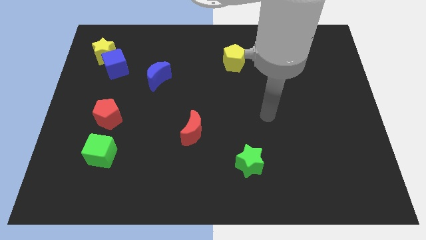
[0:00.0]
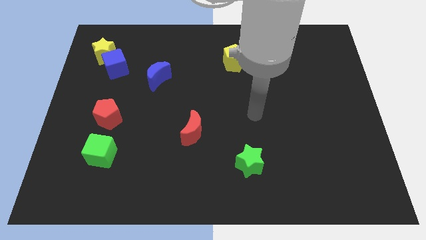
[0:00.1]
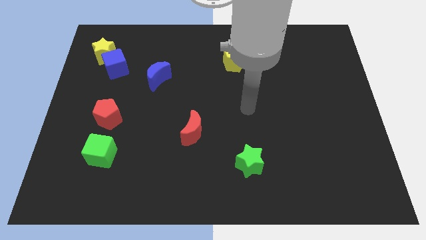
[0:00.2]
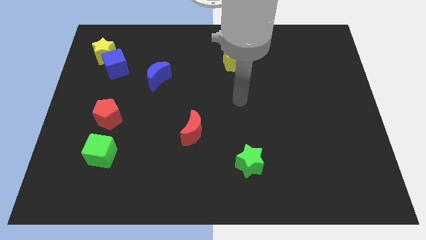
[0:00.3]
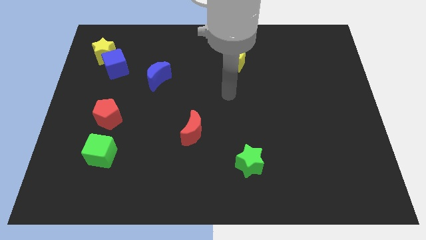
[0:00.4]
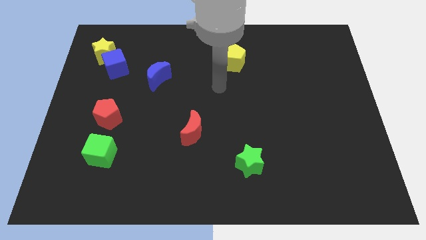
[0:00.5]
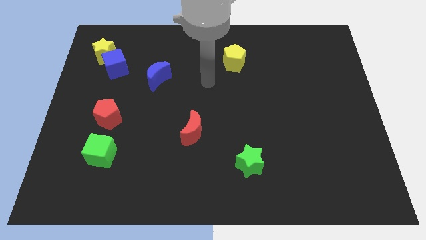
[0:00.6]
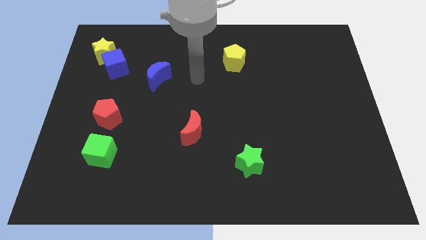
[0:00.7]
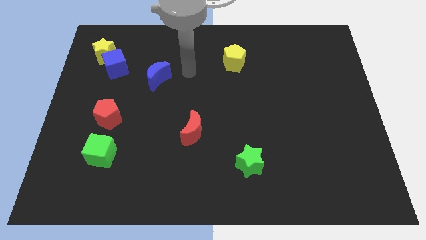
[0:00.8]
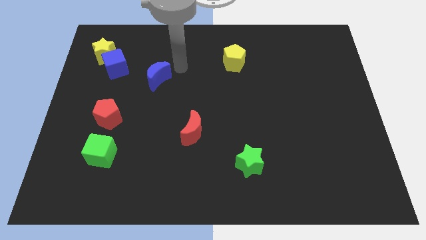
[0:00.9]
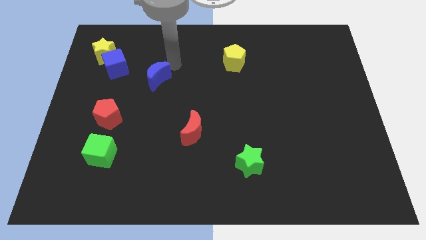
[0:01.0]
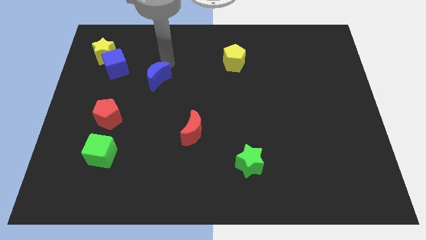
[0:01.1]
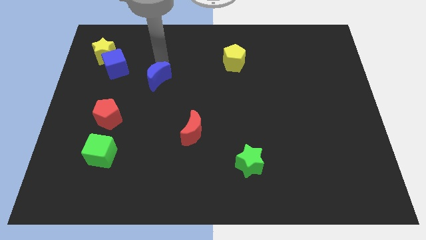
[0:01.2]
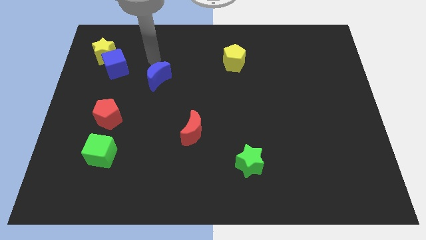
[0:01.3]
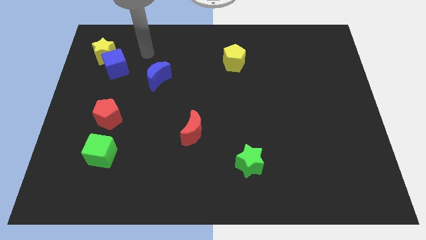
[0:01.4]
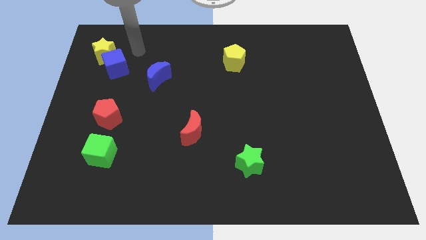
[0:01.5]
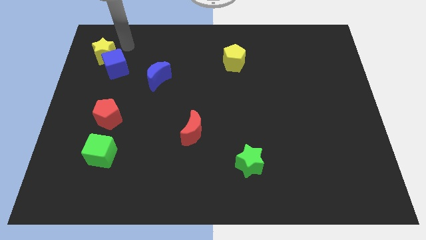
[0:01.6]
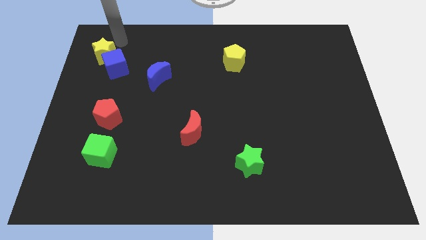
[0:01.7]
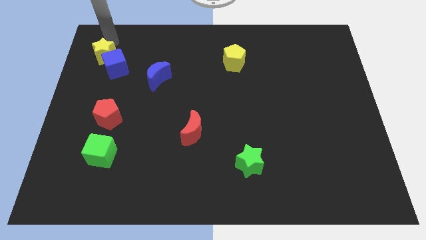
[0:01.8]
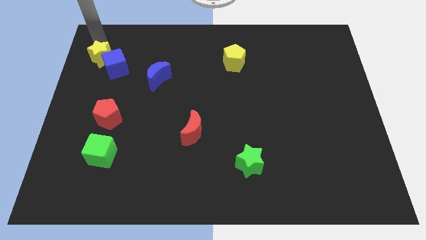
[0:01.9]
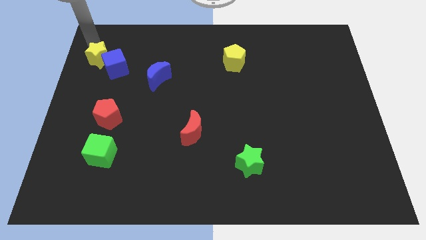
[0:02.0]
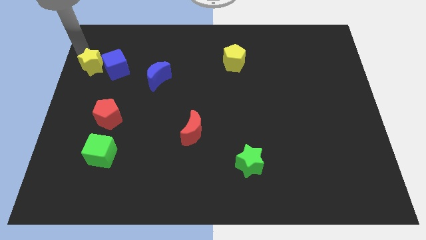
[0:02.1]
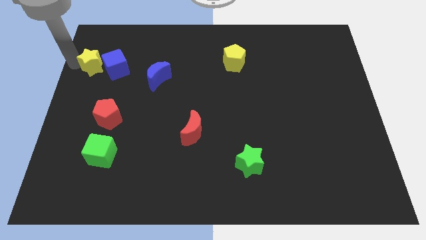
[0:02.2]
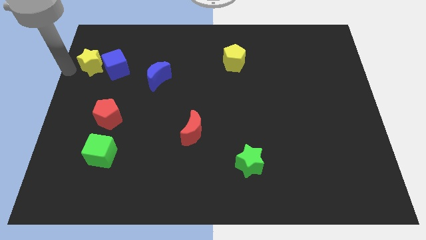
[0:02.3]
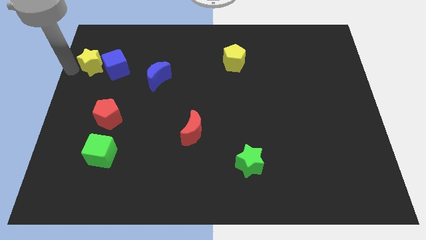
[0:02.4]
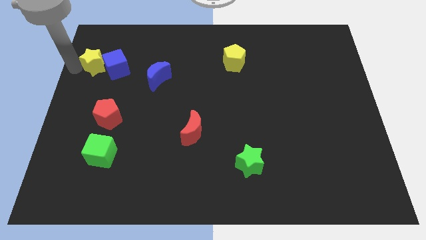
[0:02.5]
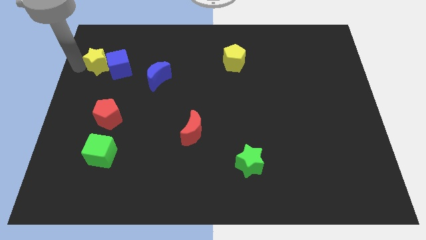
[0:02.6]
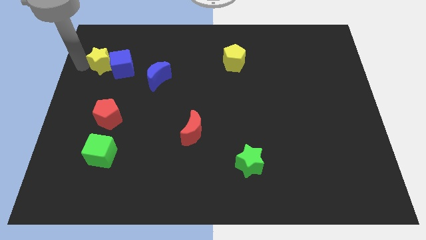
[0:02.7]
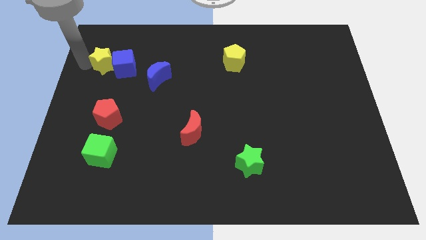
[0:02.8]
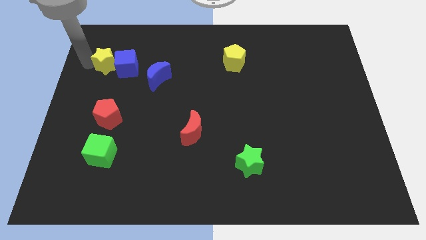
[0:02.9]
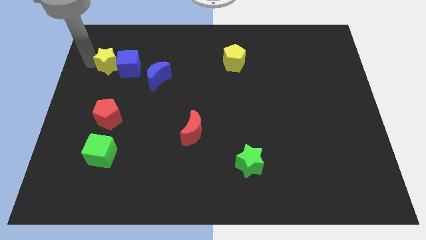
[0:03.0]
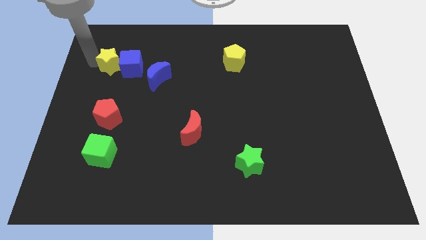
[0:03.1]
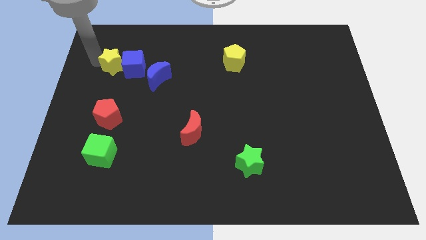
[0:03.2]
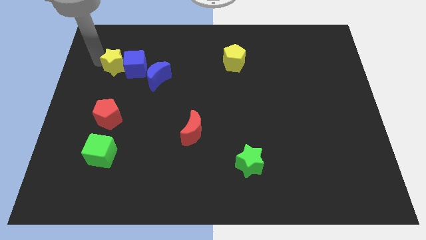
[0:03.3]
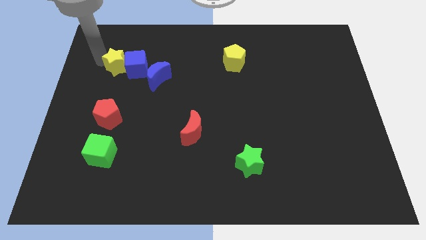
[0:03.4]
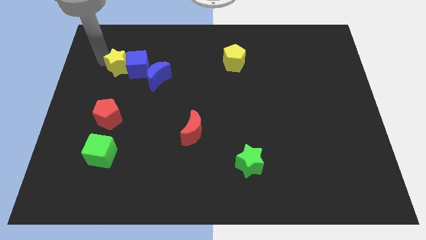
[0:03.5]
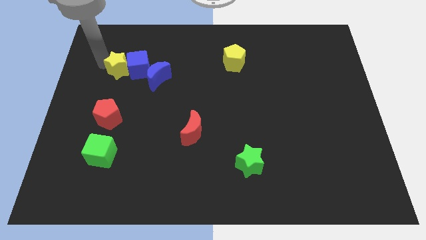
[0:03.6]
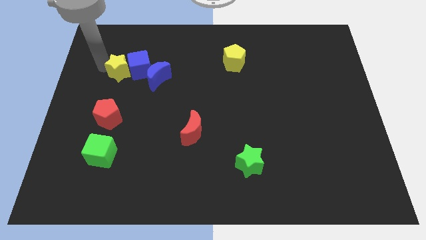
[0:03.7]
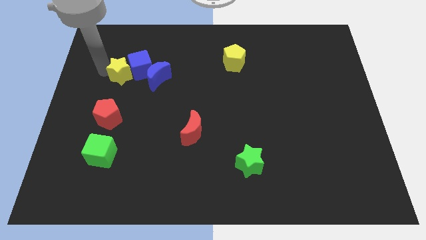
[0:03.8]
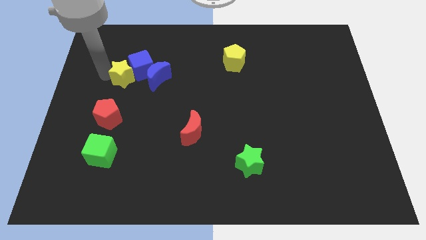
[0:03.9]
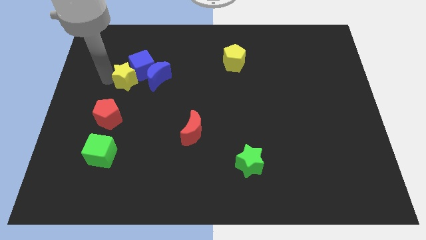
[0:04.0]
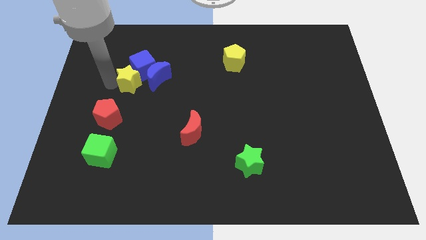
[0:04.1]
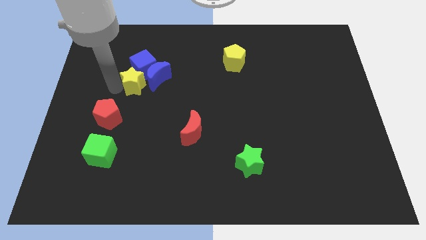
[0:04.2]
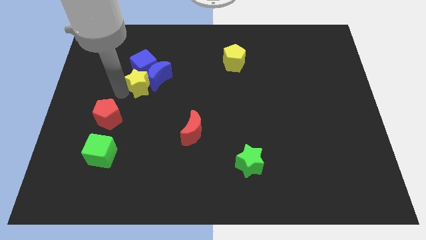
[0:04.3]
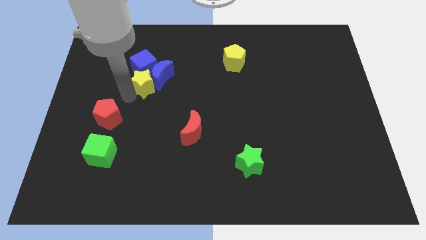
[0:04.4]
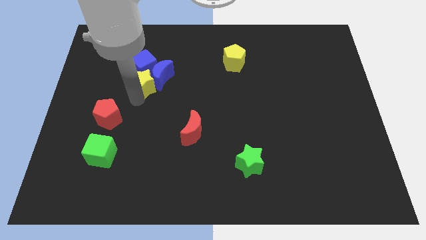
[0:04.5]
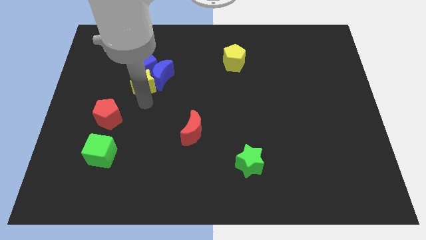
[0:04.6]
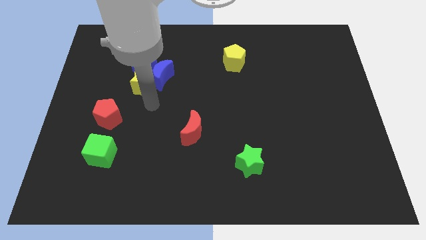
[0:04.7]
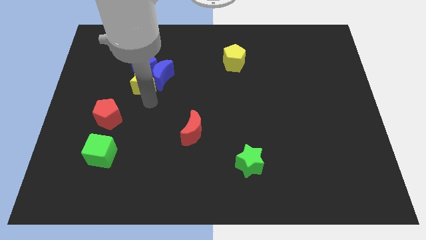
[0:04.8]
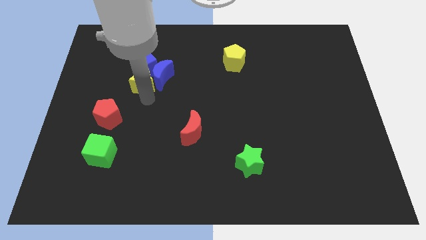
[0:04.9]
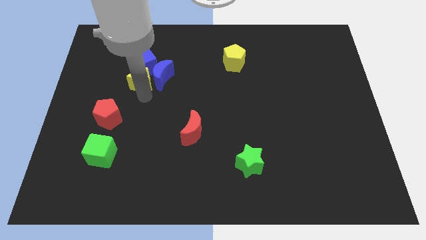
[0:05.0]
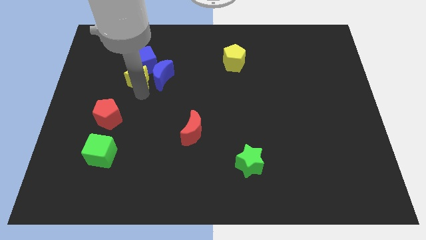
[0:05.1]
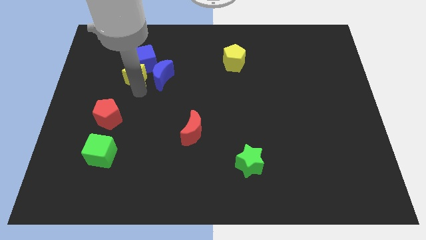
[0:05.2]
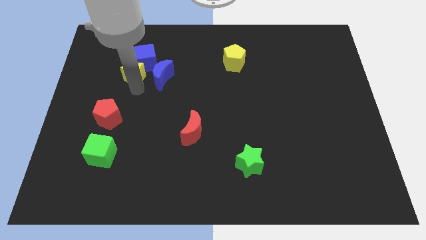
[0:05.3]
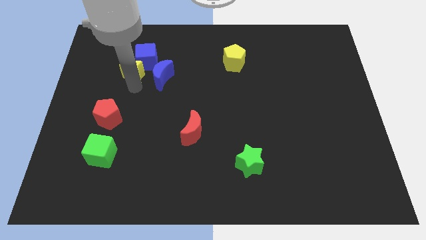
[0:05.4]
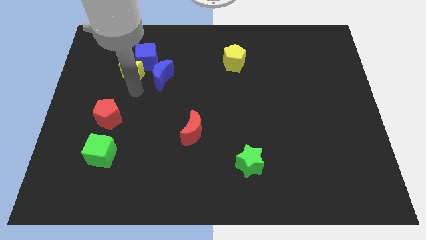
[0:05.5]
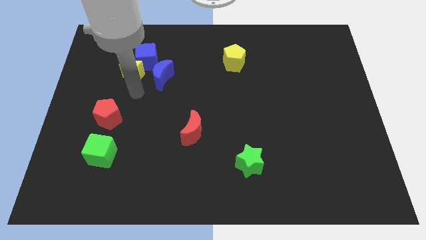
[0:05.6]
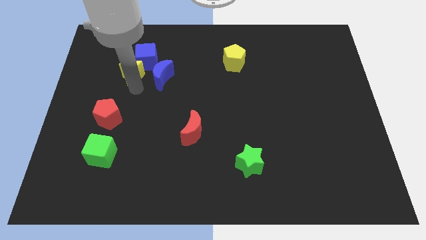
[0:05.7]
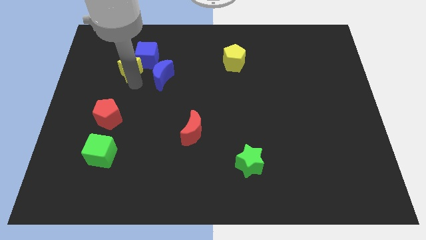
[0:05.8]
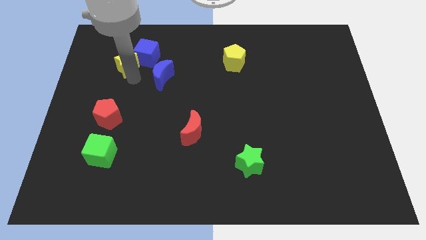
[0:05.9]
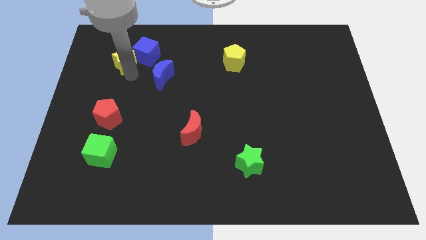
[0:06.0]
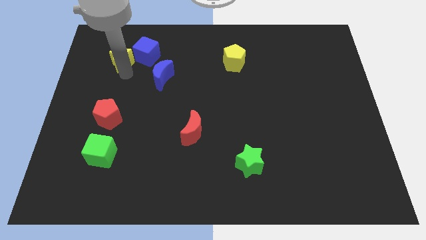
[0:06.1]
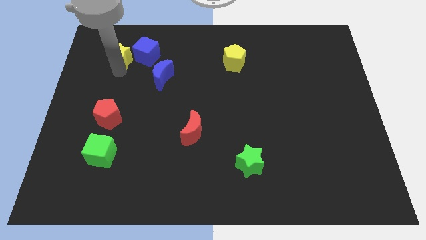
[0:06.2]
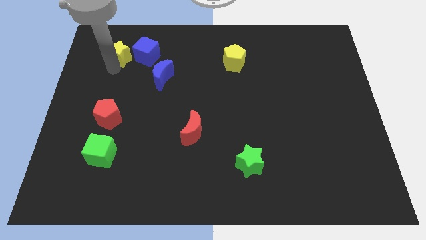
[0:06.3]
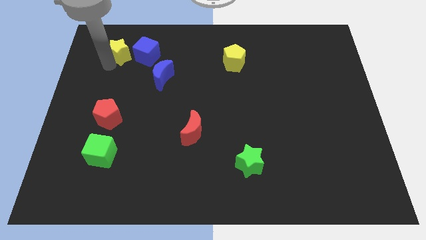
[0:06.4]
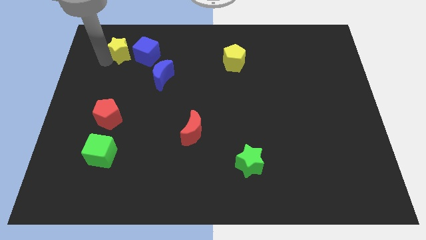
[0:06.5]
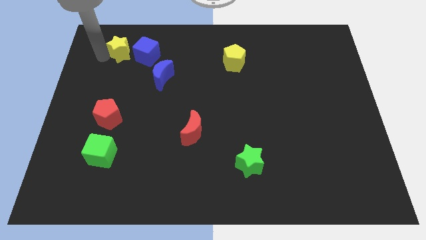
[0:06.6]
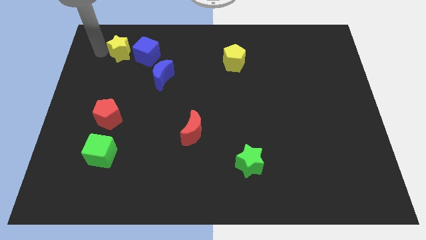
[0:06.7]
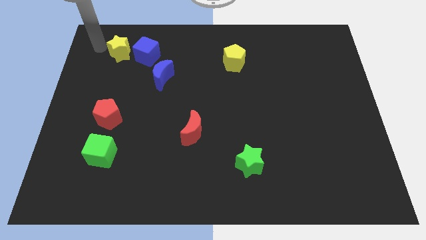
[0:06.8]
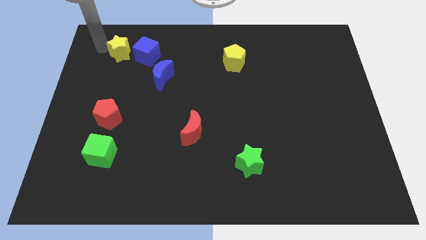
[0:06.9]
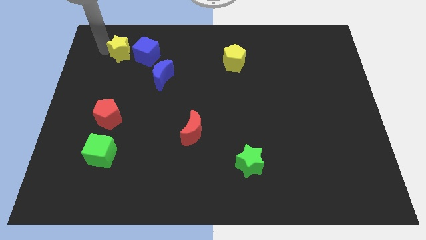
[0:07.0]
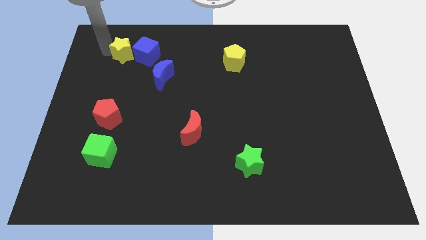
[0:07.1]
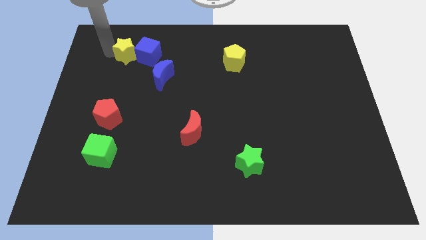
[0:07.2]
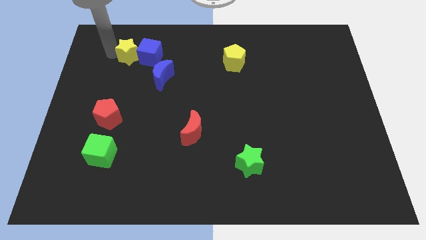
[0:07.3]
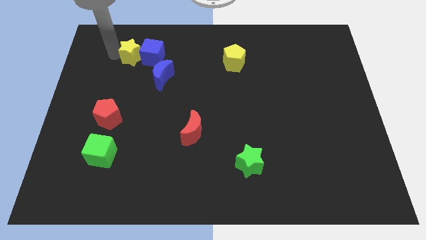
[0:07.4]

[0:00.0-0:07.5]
push the yellow star somewhat right

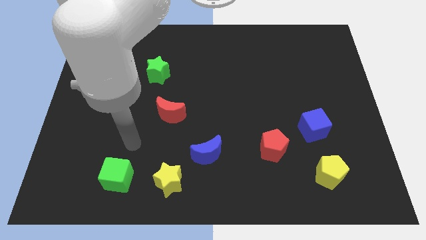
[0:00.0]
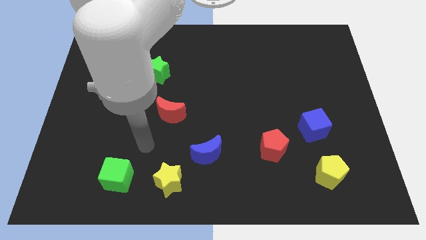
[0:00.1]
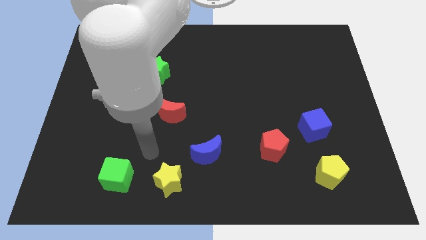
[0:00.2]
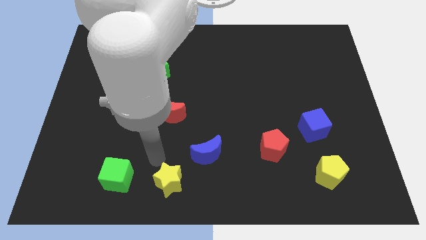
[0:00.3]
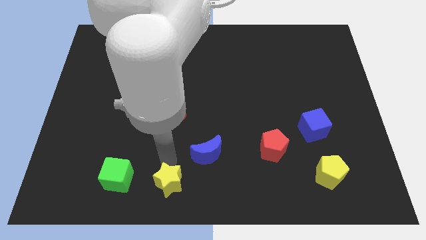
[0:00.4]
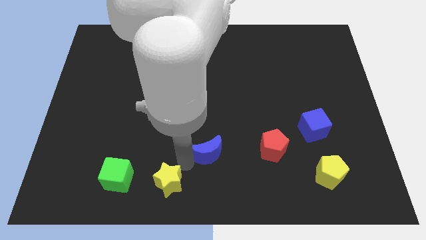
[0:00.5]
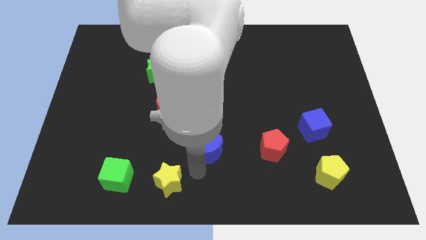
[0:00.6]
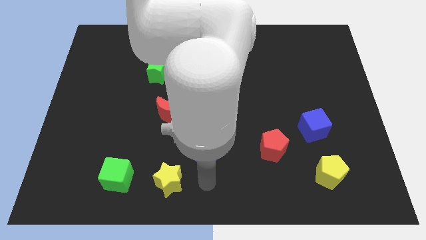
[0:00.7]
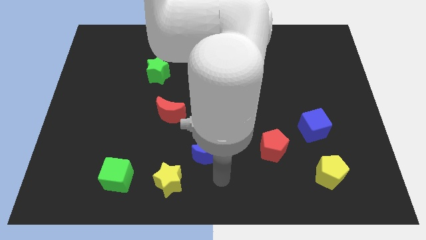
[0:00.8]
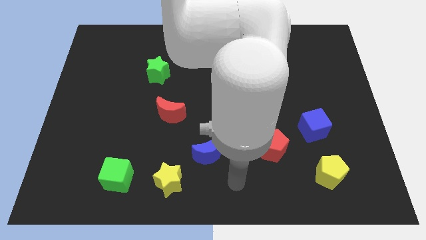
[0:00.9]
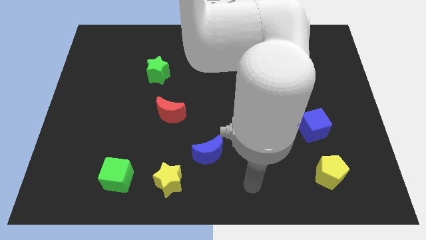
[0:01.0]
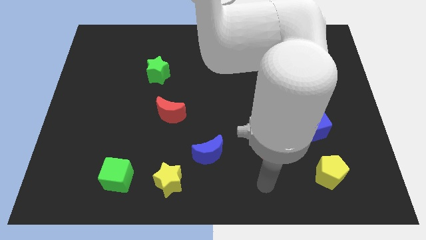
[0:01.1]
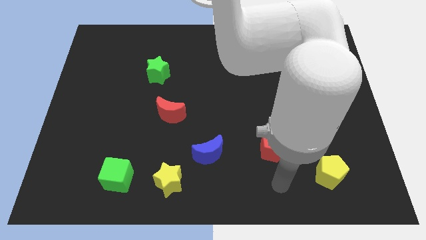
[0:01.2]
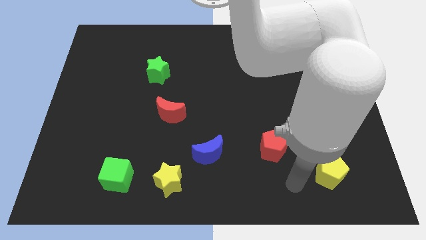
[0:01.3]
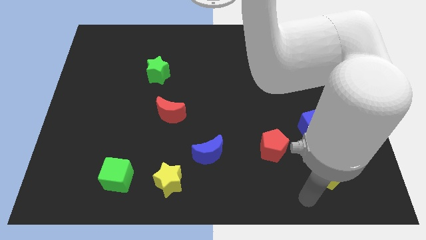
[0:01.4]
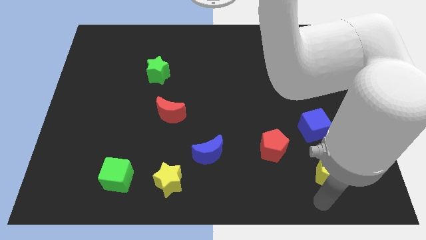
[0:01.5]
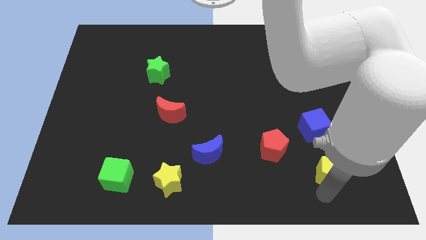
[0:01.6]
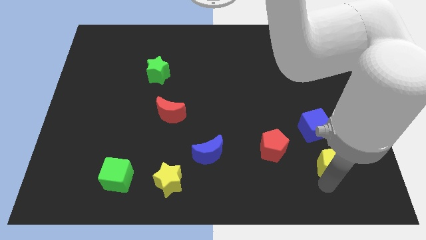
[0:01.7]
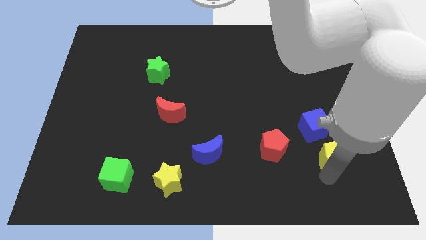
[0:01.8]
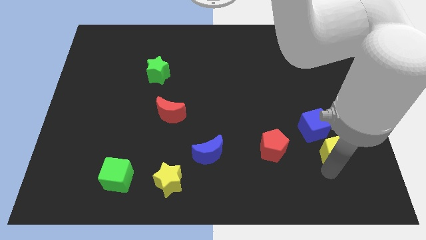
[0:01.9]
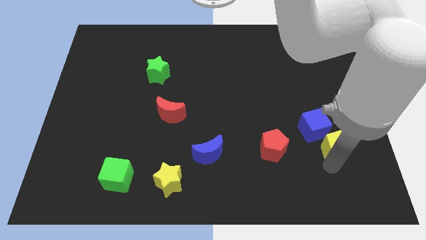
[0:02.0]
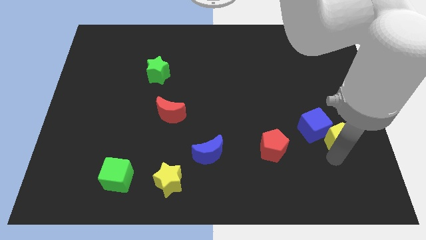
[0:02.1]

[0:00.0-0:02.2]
move the yellow pentagon upwards slightly
